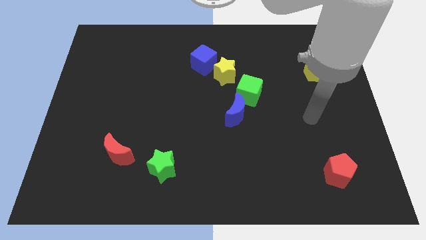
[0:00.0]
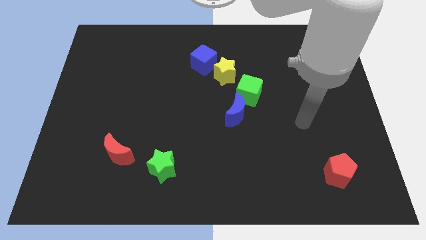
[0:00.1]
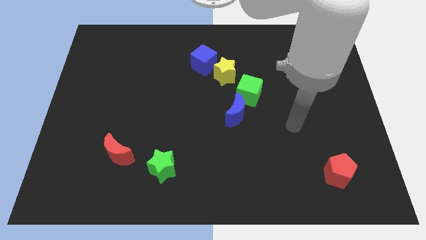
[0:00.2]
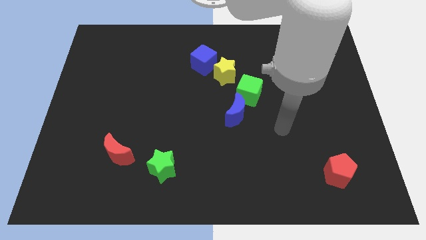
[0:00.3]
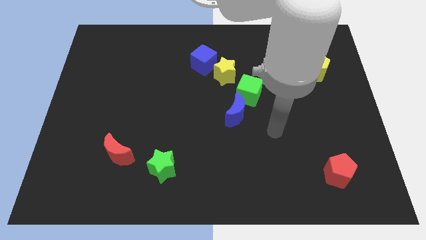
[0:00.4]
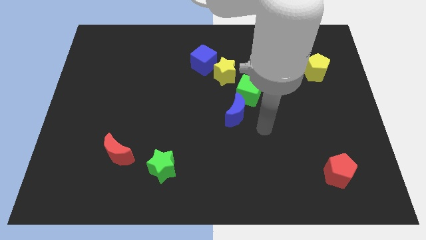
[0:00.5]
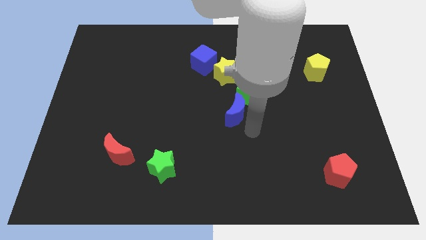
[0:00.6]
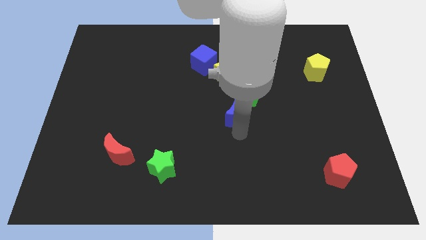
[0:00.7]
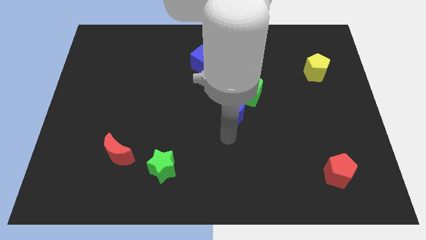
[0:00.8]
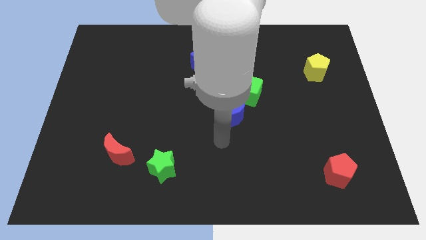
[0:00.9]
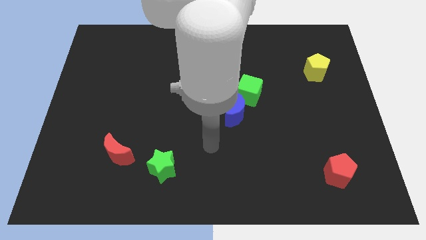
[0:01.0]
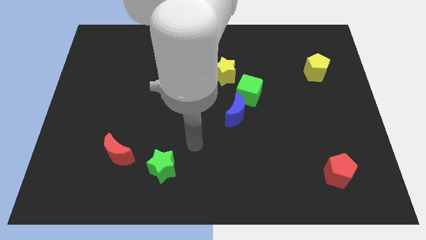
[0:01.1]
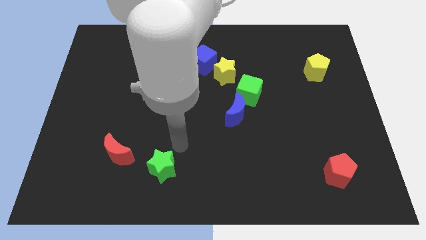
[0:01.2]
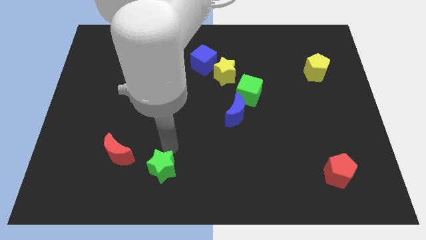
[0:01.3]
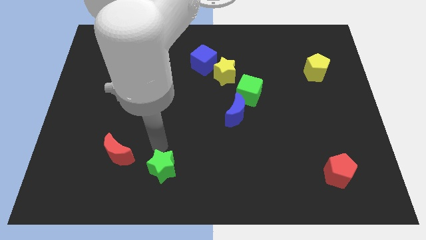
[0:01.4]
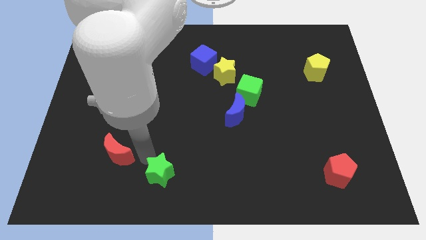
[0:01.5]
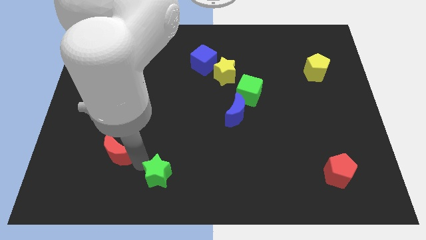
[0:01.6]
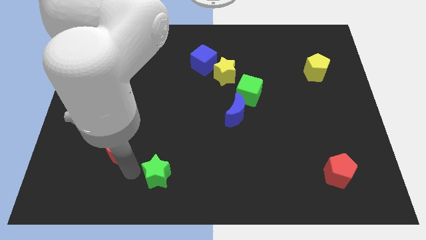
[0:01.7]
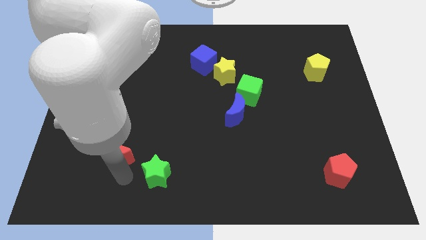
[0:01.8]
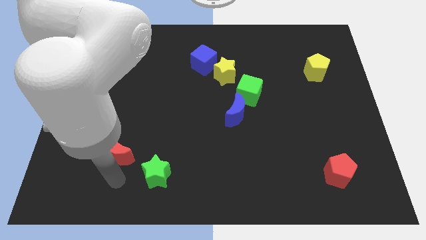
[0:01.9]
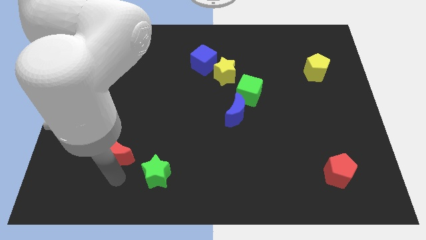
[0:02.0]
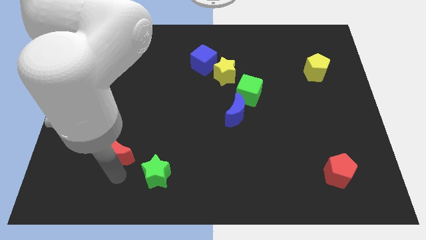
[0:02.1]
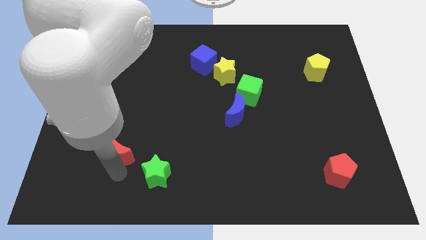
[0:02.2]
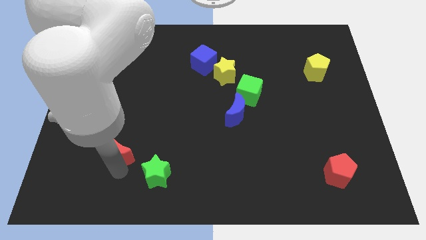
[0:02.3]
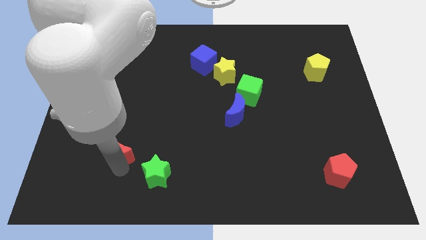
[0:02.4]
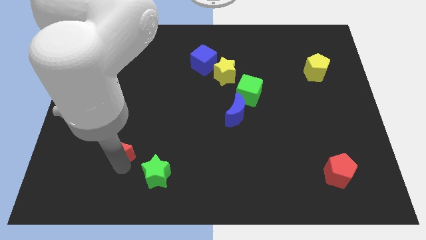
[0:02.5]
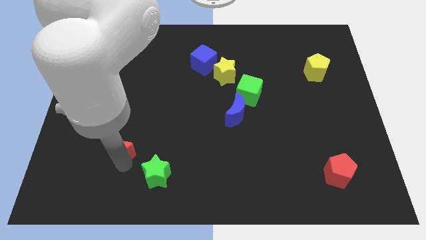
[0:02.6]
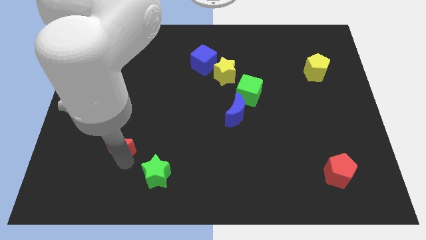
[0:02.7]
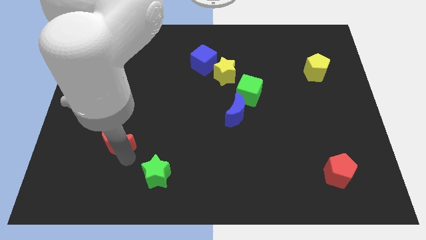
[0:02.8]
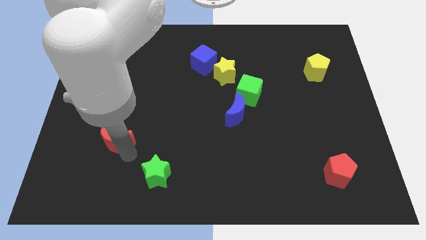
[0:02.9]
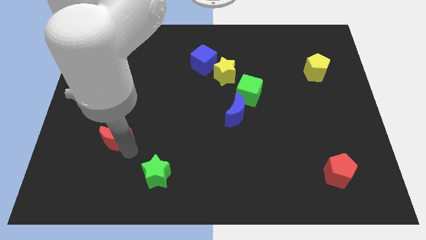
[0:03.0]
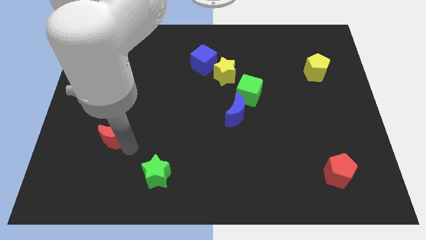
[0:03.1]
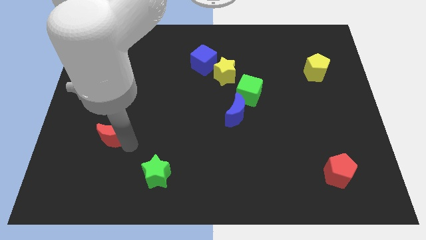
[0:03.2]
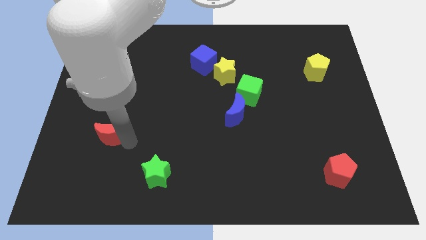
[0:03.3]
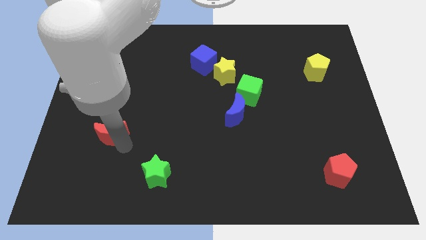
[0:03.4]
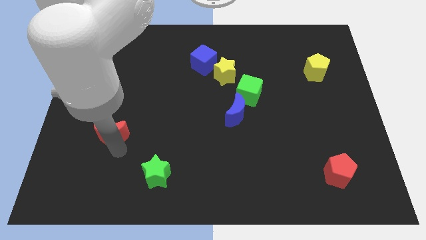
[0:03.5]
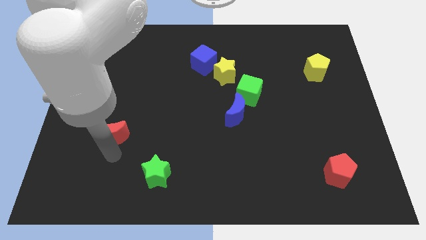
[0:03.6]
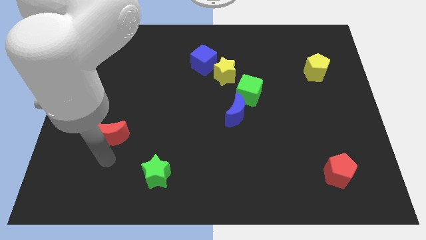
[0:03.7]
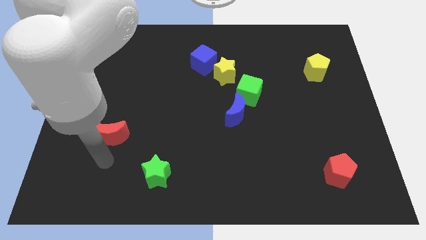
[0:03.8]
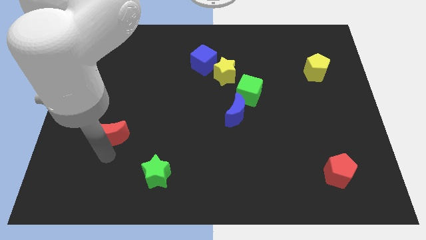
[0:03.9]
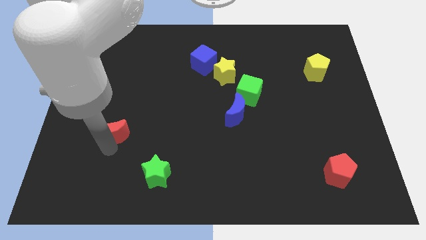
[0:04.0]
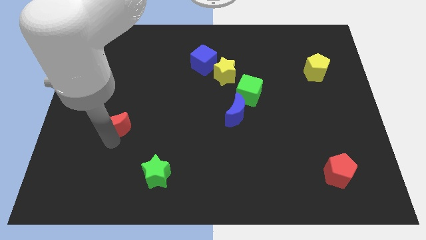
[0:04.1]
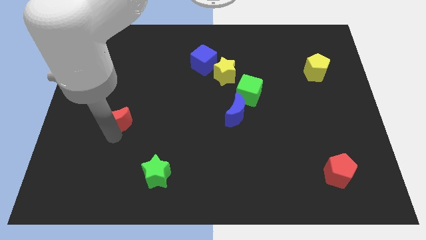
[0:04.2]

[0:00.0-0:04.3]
slightly move the red moon upwards

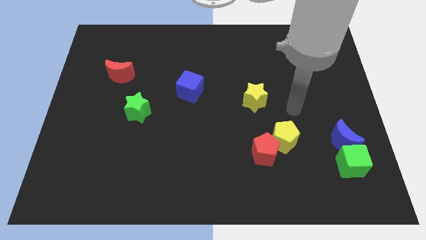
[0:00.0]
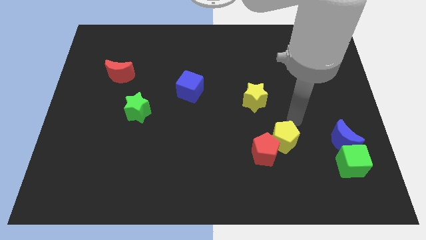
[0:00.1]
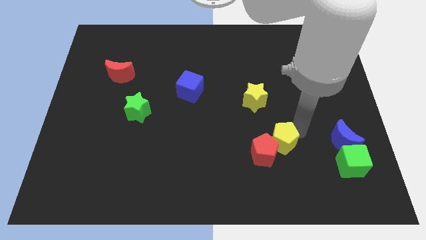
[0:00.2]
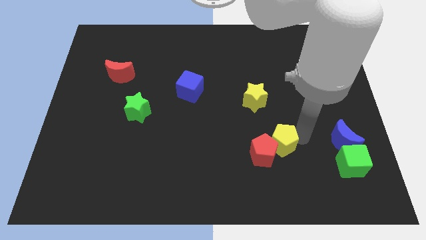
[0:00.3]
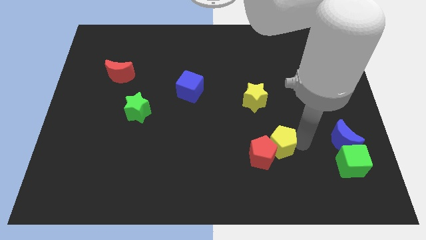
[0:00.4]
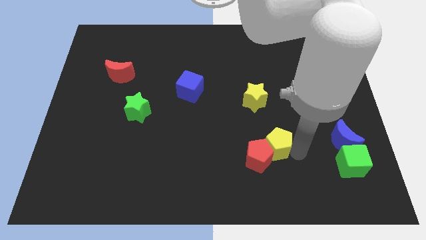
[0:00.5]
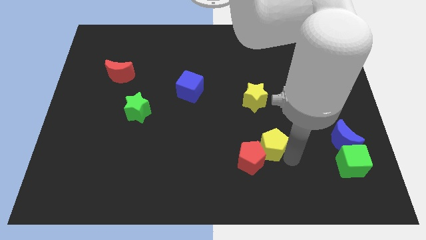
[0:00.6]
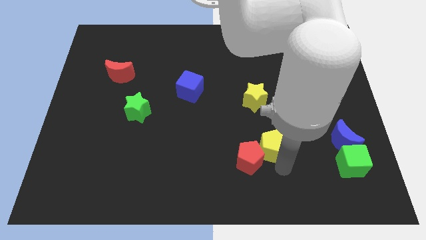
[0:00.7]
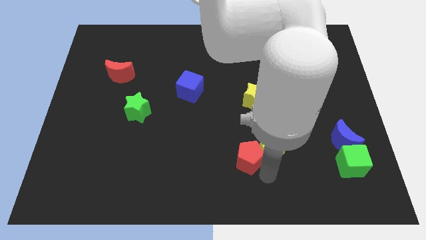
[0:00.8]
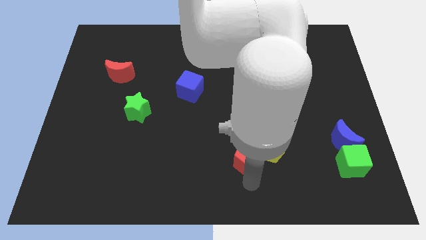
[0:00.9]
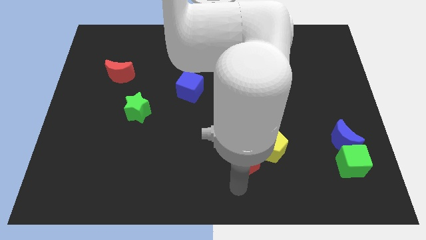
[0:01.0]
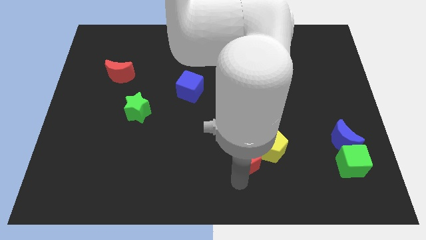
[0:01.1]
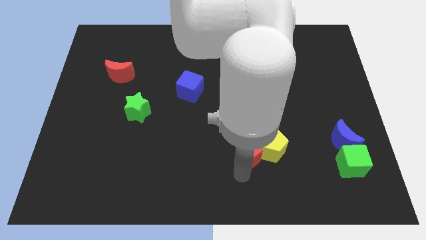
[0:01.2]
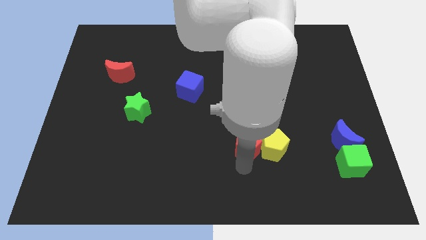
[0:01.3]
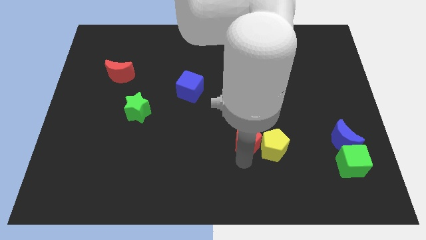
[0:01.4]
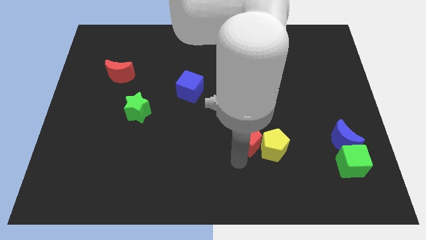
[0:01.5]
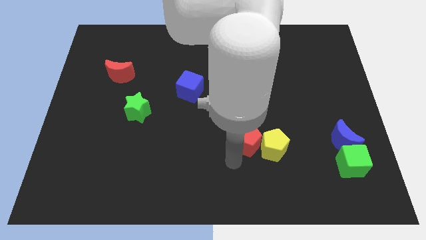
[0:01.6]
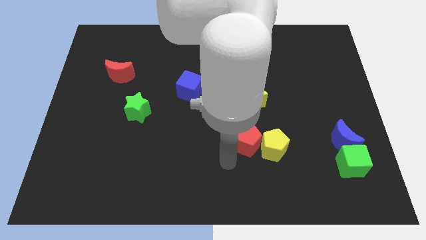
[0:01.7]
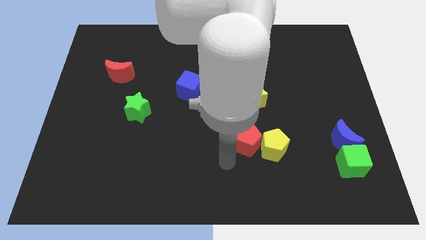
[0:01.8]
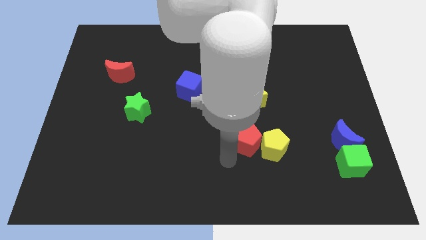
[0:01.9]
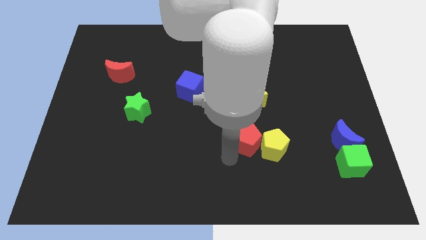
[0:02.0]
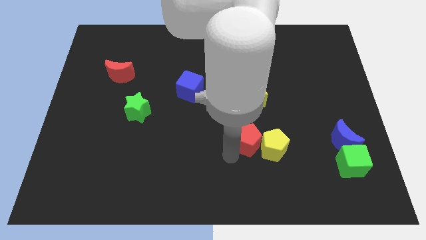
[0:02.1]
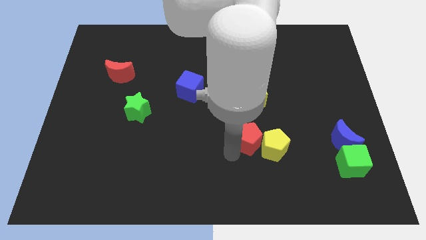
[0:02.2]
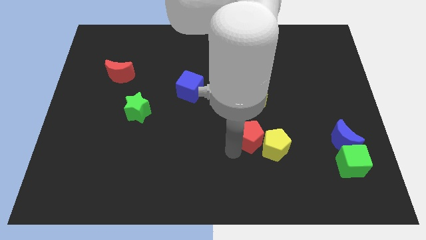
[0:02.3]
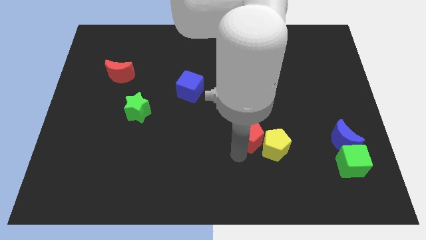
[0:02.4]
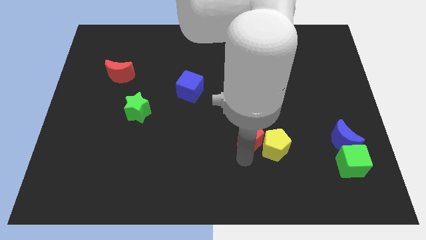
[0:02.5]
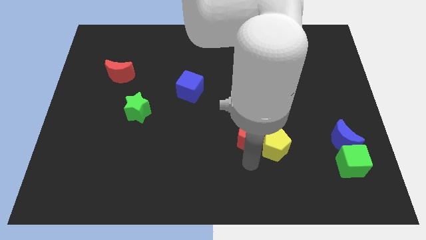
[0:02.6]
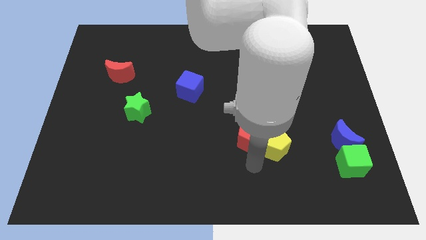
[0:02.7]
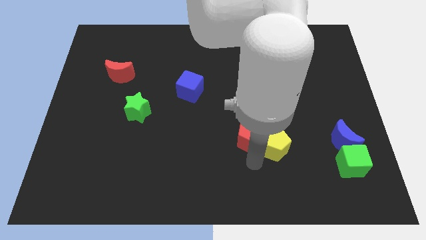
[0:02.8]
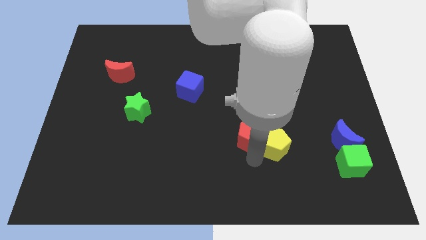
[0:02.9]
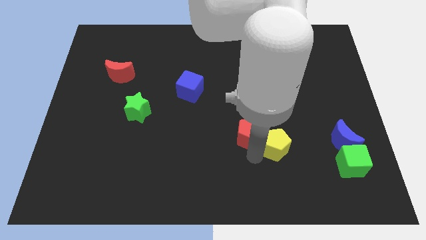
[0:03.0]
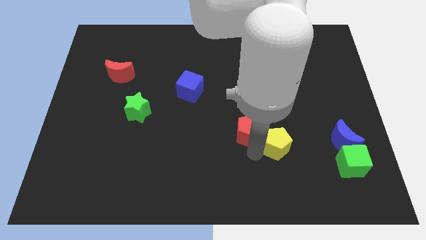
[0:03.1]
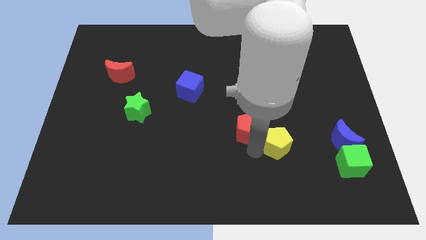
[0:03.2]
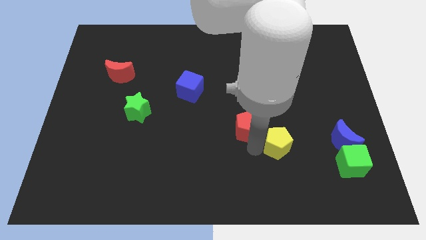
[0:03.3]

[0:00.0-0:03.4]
slightly move the red pentagon upwards and then left
